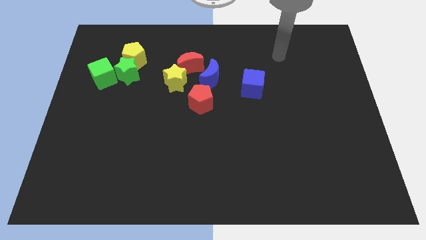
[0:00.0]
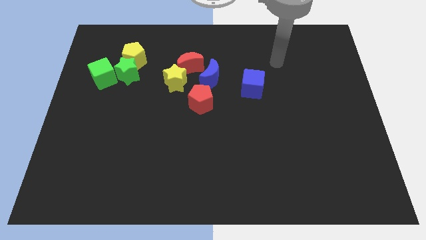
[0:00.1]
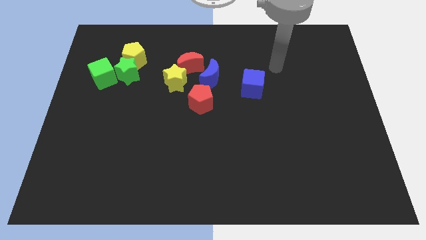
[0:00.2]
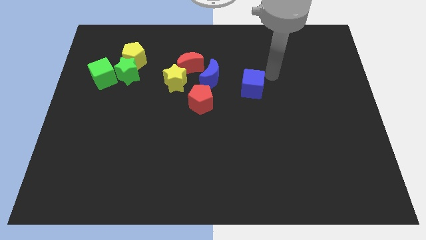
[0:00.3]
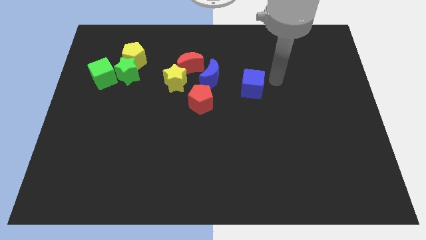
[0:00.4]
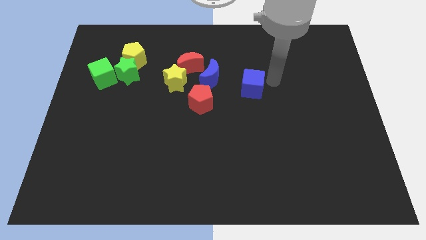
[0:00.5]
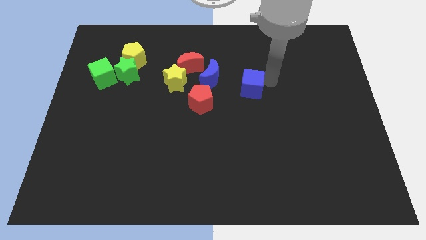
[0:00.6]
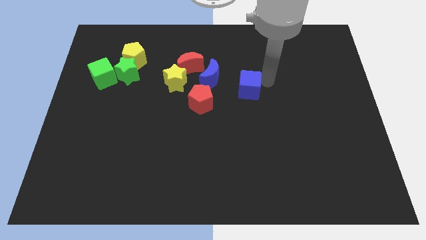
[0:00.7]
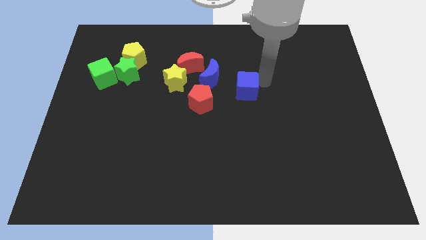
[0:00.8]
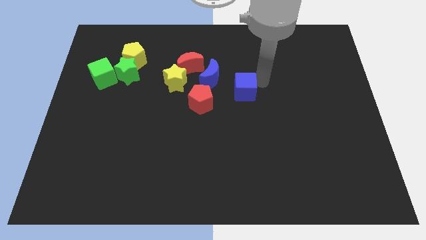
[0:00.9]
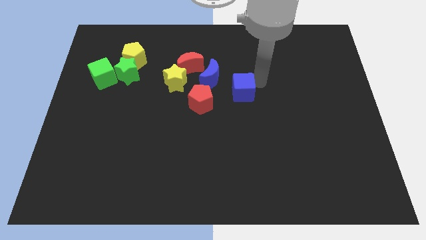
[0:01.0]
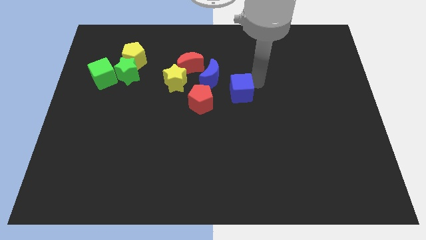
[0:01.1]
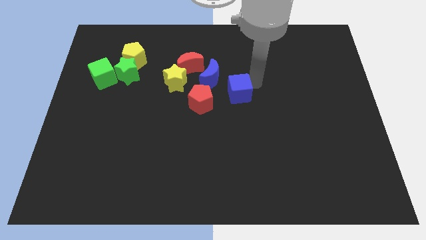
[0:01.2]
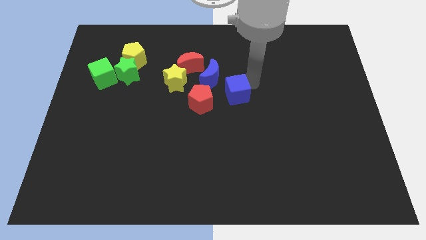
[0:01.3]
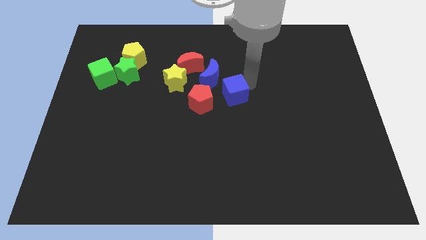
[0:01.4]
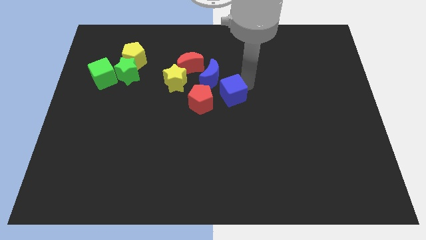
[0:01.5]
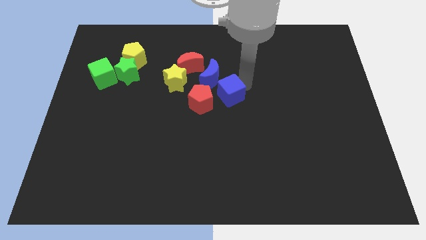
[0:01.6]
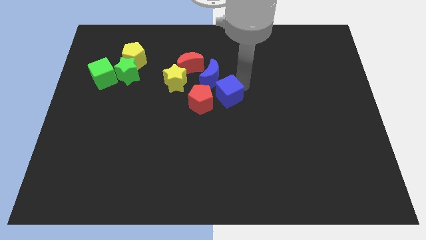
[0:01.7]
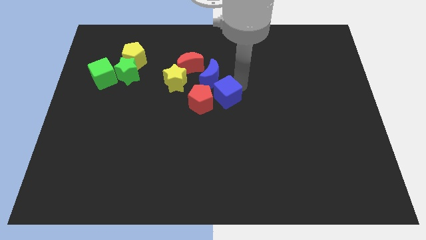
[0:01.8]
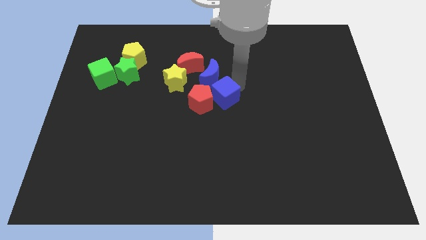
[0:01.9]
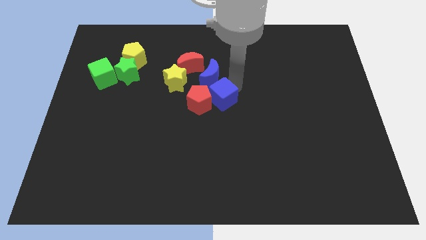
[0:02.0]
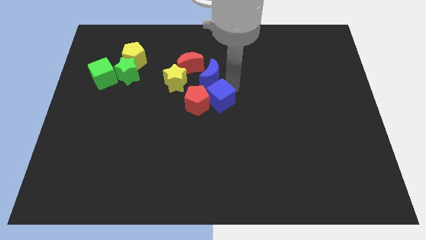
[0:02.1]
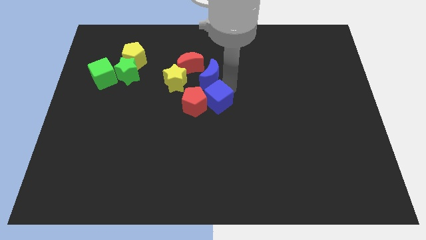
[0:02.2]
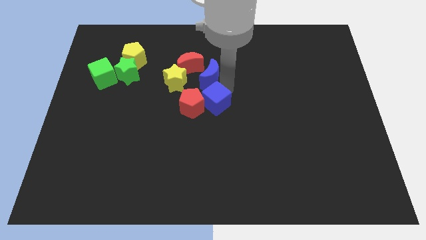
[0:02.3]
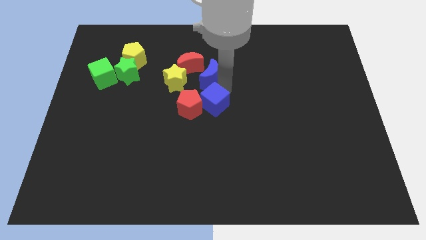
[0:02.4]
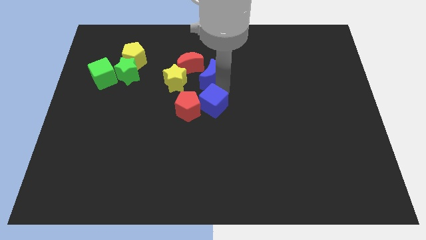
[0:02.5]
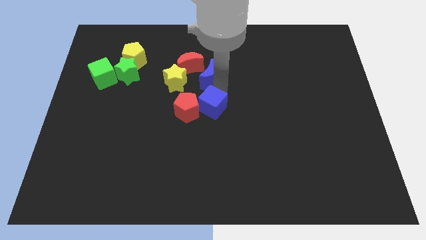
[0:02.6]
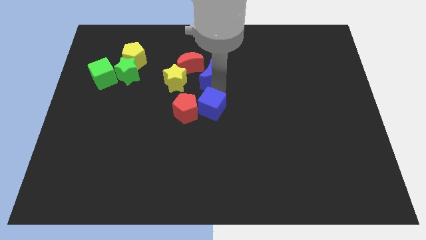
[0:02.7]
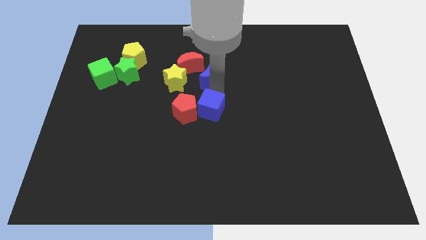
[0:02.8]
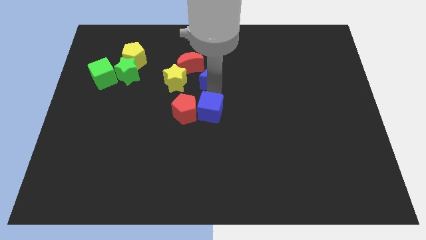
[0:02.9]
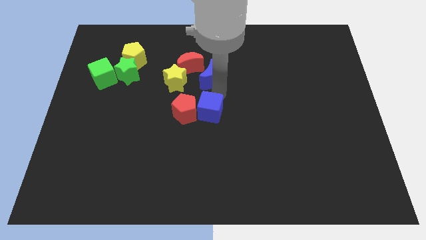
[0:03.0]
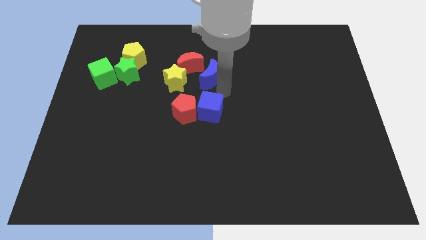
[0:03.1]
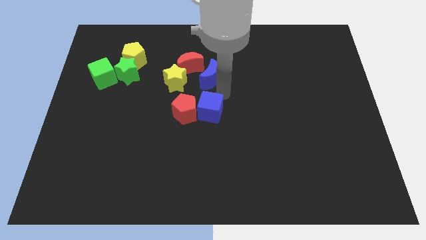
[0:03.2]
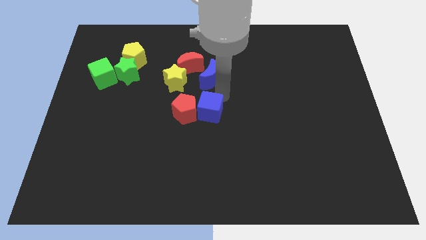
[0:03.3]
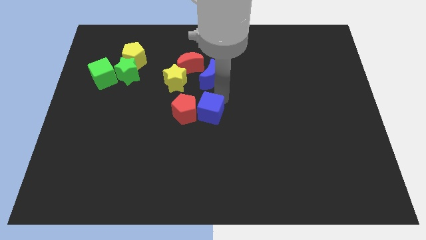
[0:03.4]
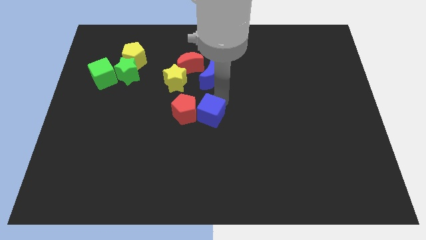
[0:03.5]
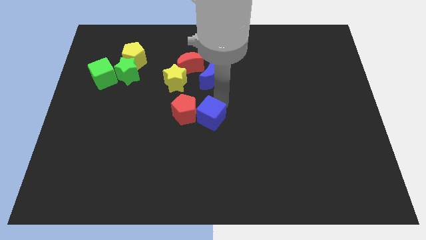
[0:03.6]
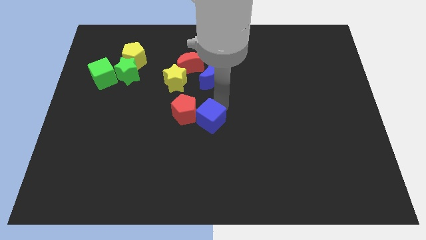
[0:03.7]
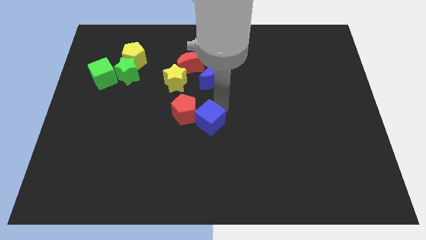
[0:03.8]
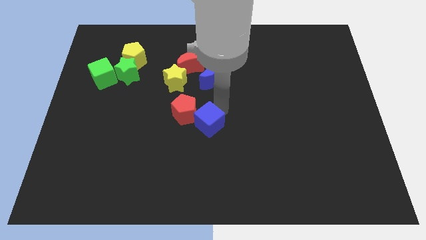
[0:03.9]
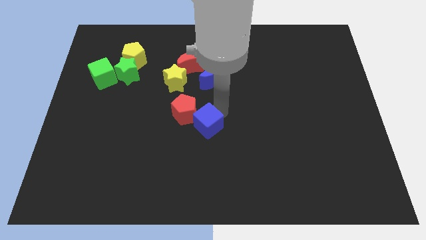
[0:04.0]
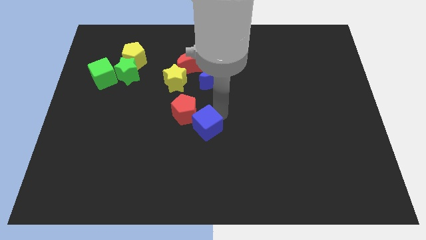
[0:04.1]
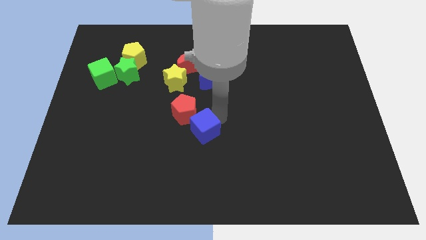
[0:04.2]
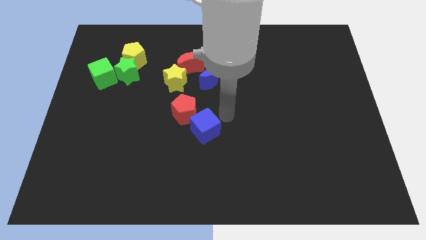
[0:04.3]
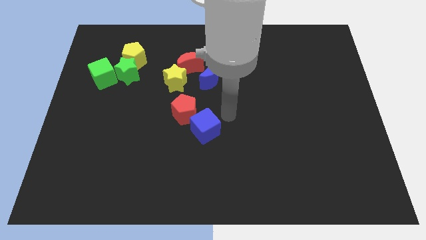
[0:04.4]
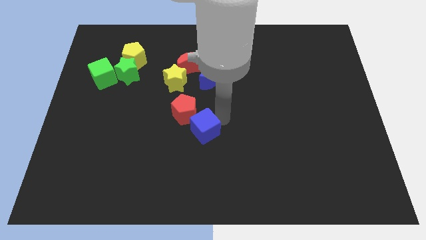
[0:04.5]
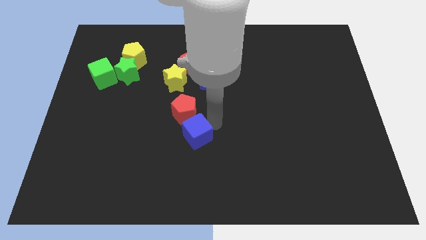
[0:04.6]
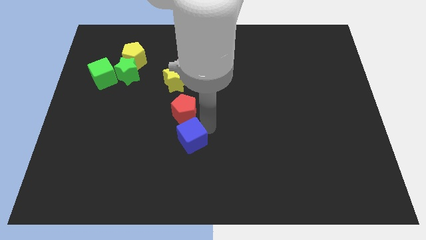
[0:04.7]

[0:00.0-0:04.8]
slide the blue cube down and to the left diagonally

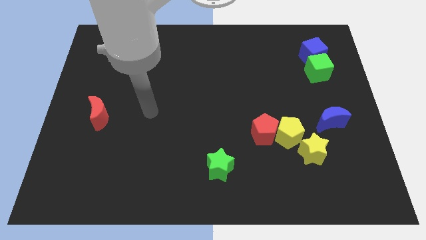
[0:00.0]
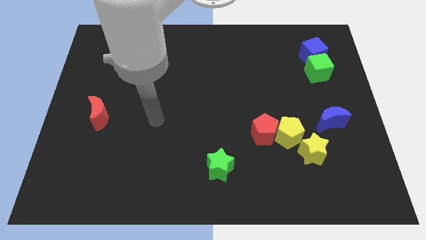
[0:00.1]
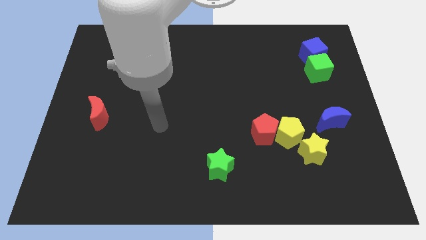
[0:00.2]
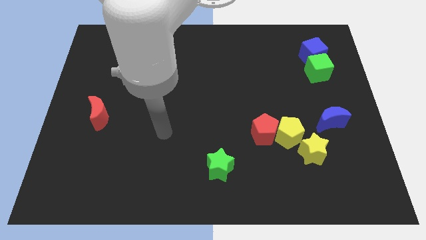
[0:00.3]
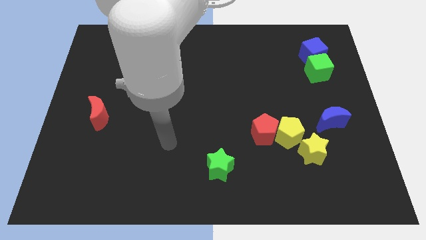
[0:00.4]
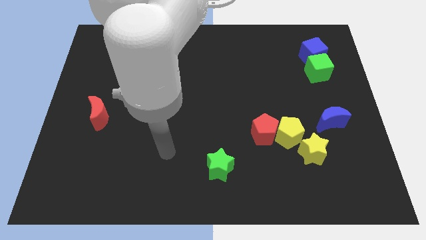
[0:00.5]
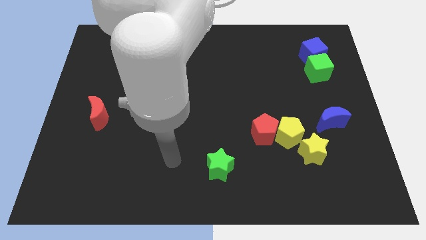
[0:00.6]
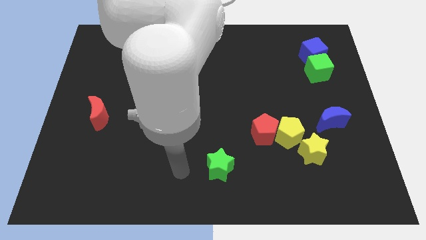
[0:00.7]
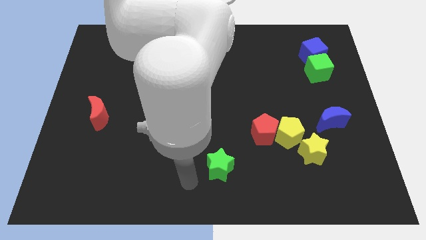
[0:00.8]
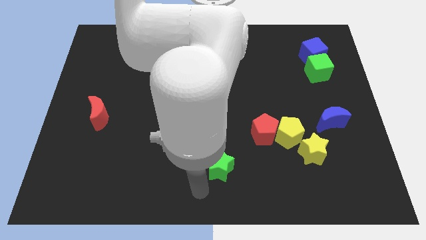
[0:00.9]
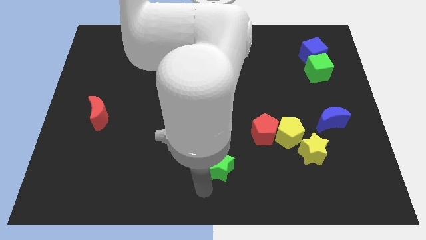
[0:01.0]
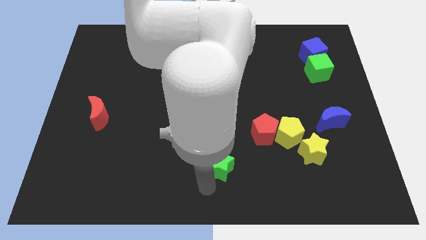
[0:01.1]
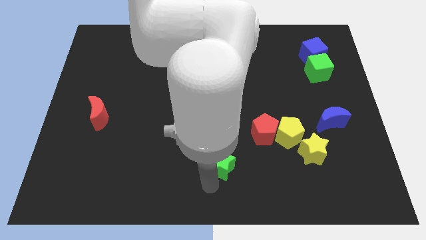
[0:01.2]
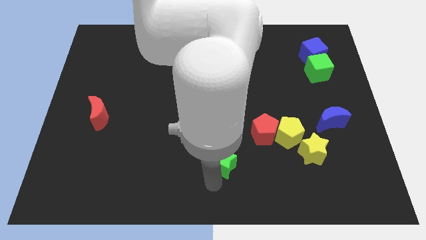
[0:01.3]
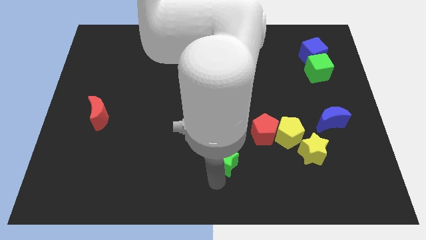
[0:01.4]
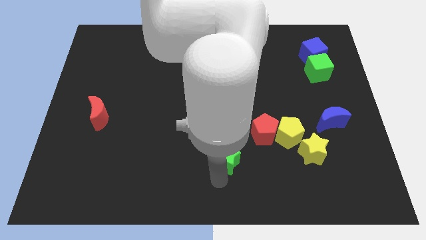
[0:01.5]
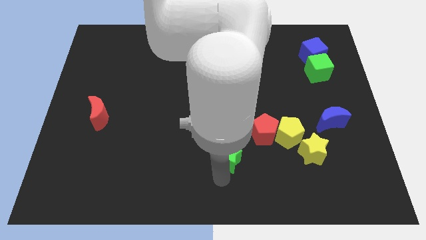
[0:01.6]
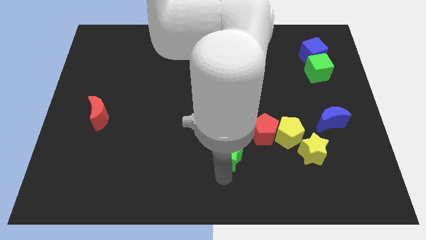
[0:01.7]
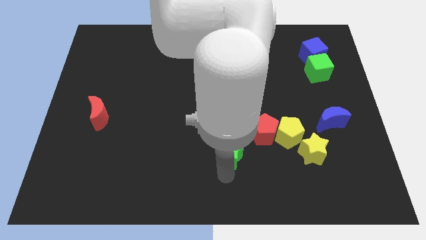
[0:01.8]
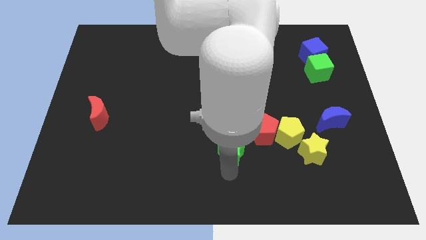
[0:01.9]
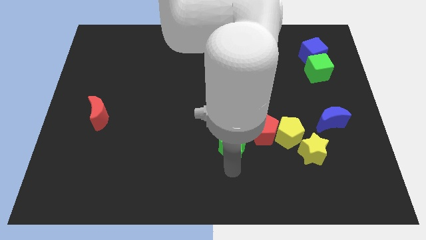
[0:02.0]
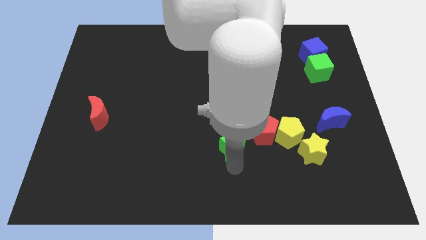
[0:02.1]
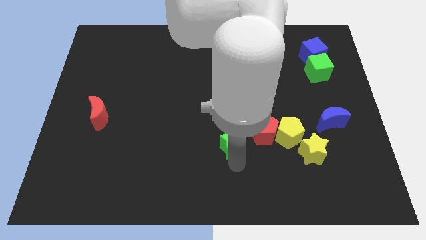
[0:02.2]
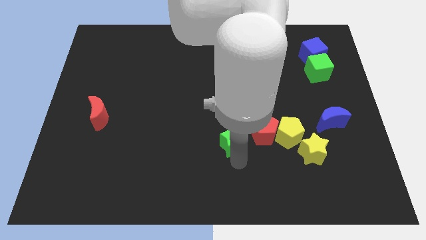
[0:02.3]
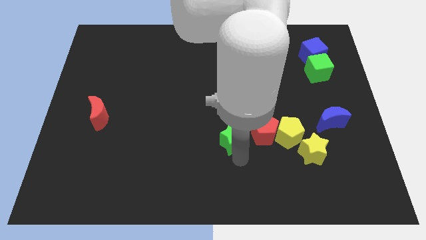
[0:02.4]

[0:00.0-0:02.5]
move the green star a little bit up and to the right diagonally

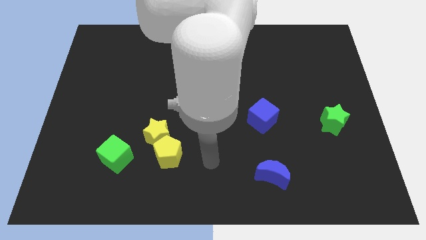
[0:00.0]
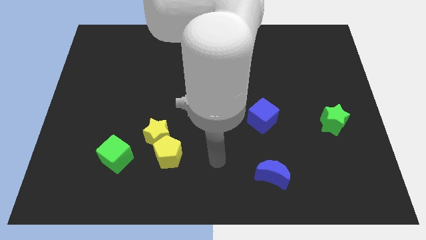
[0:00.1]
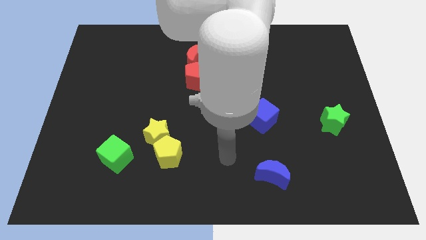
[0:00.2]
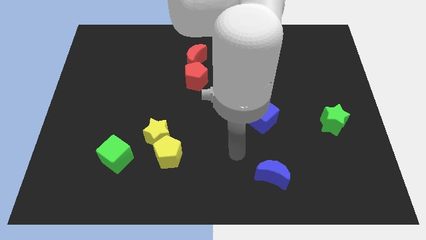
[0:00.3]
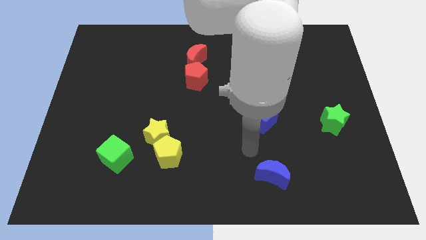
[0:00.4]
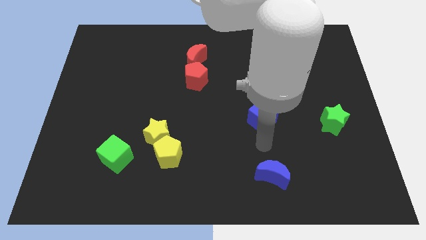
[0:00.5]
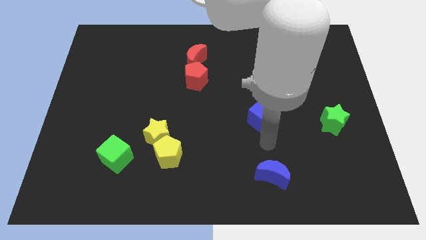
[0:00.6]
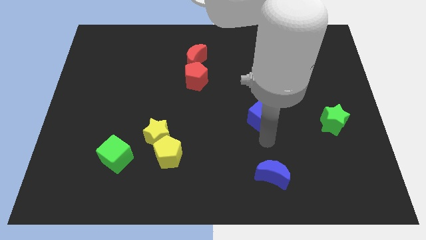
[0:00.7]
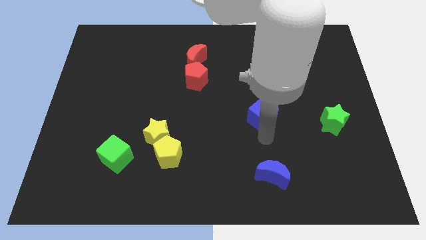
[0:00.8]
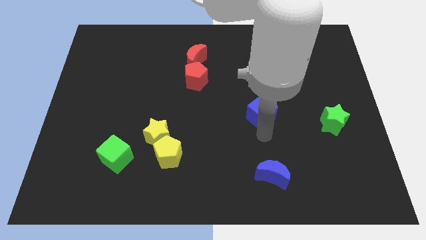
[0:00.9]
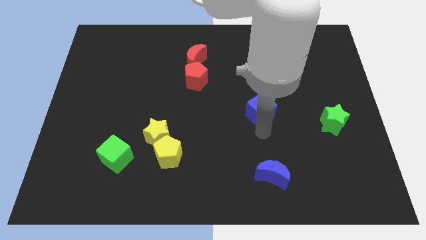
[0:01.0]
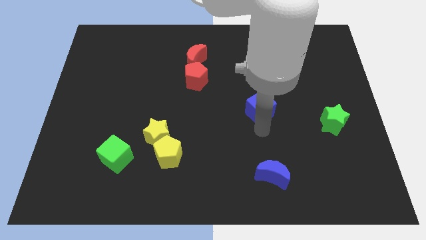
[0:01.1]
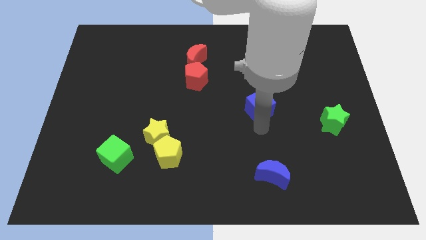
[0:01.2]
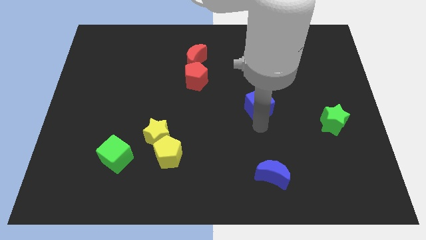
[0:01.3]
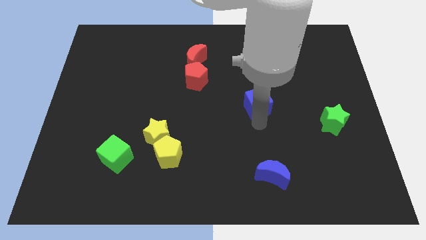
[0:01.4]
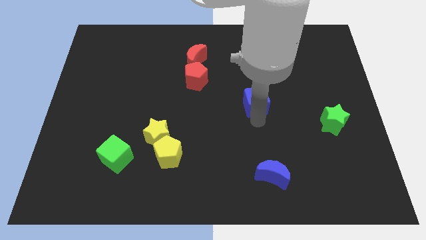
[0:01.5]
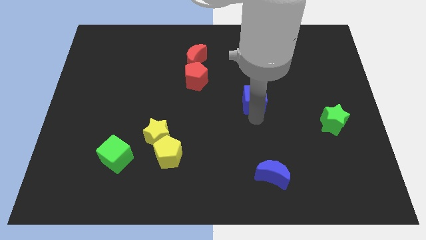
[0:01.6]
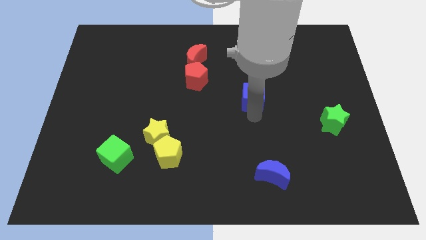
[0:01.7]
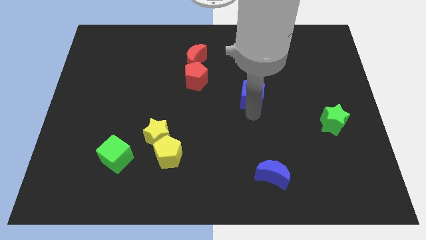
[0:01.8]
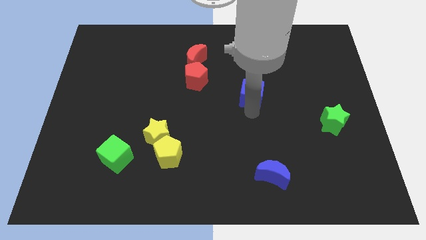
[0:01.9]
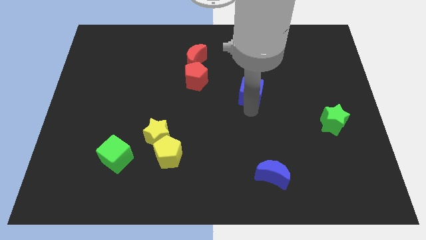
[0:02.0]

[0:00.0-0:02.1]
slide the blue cube up a little bit
